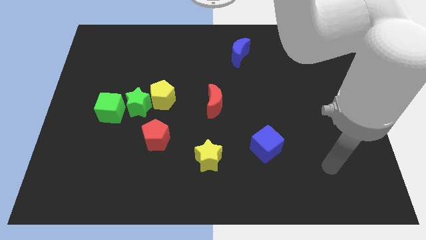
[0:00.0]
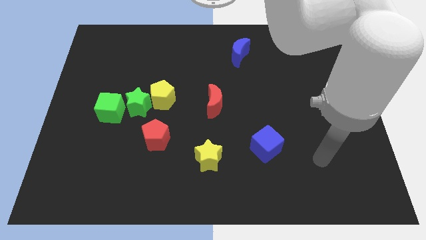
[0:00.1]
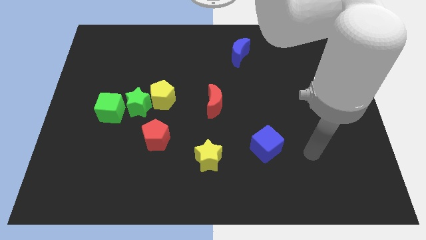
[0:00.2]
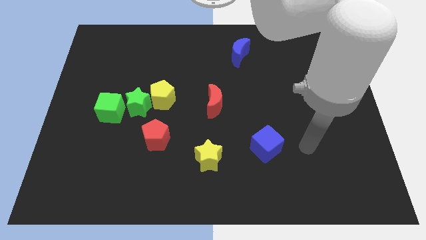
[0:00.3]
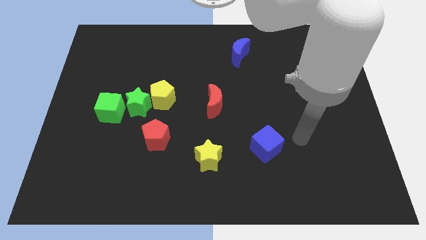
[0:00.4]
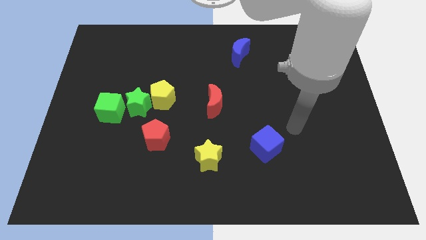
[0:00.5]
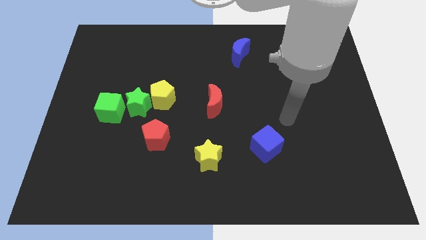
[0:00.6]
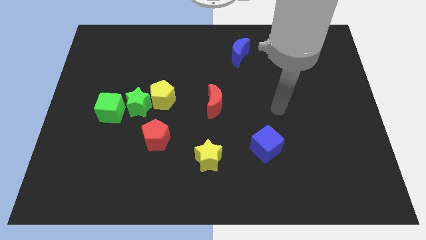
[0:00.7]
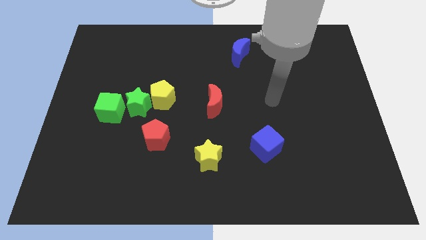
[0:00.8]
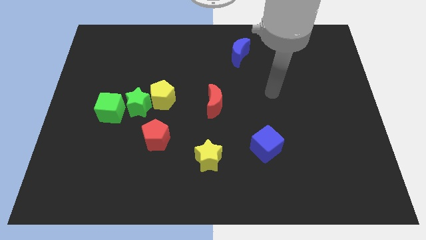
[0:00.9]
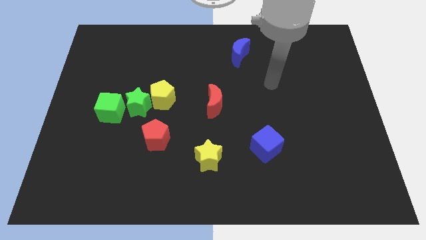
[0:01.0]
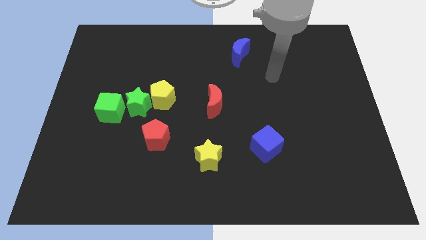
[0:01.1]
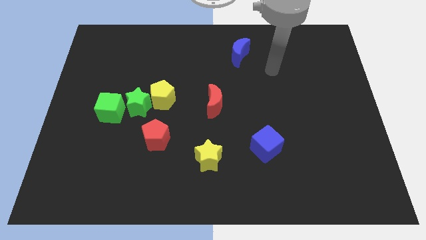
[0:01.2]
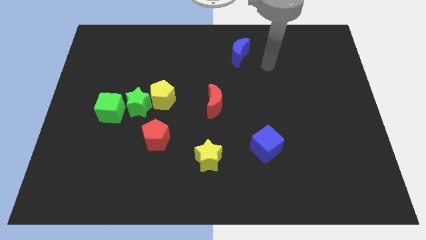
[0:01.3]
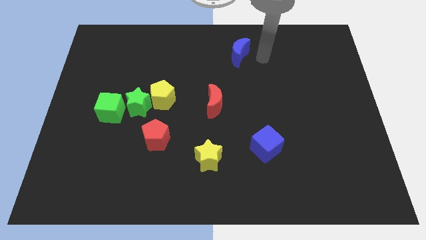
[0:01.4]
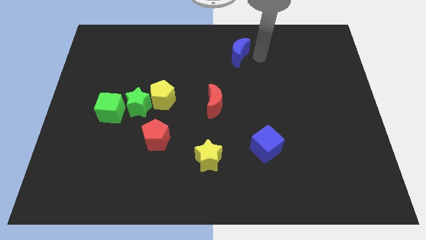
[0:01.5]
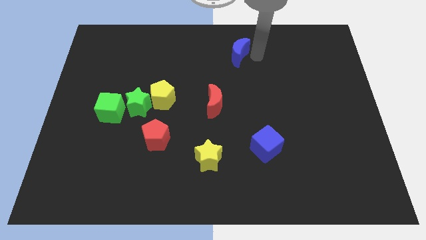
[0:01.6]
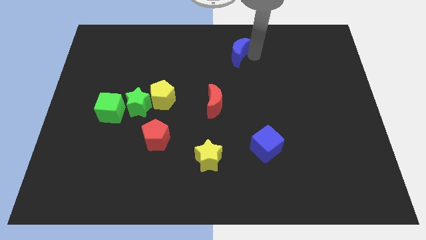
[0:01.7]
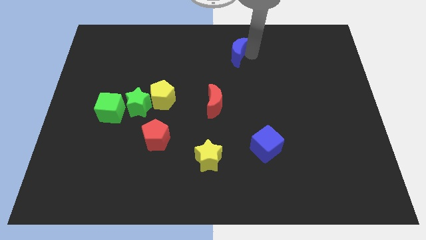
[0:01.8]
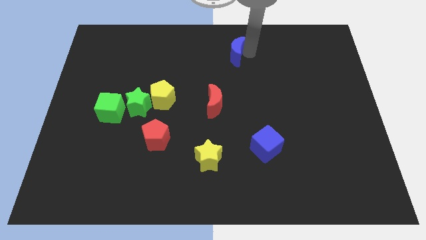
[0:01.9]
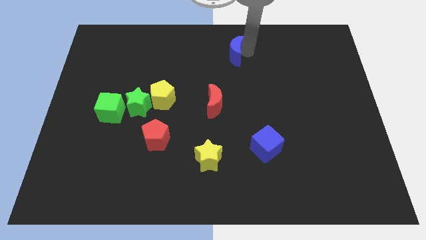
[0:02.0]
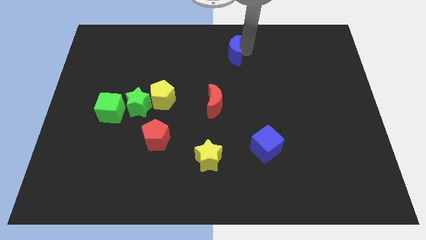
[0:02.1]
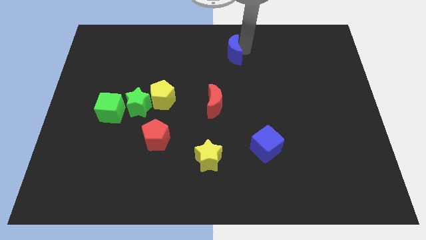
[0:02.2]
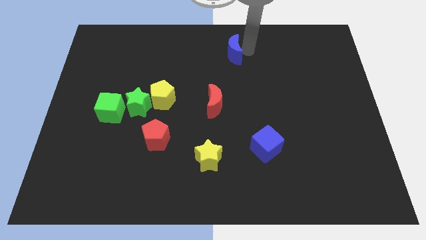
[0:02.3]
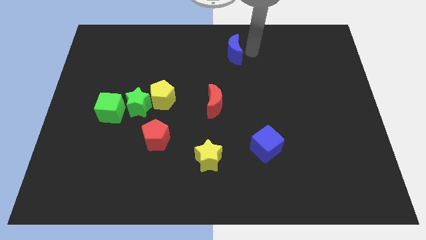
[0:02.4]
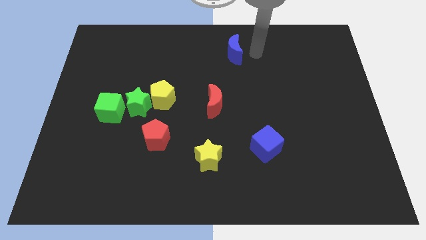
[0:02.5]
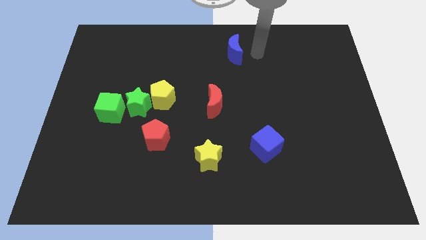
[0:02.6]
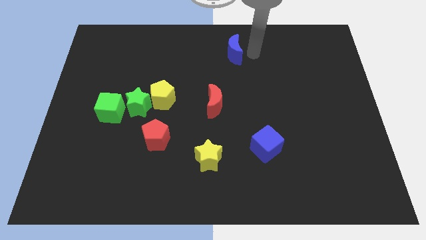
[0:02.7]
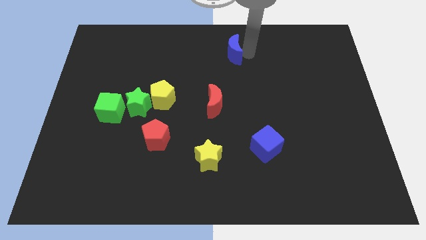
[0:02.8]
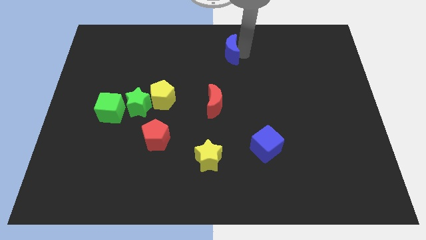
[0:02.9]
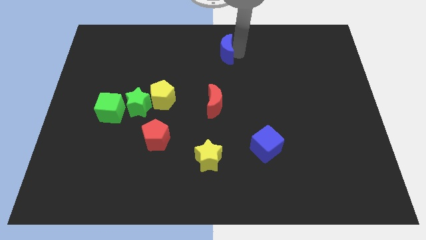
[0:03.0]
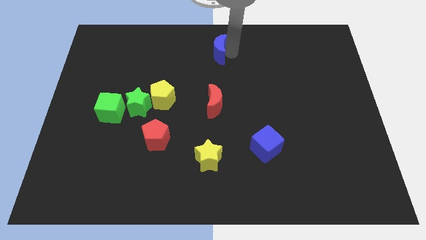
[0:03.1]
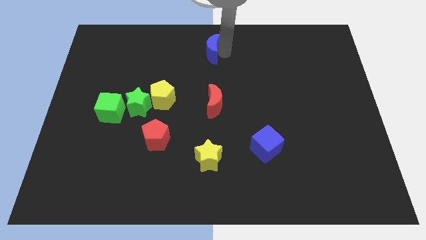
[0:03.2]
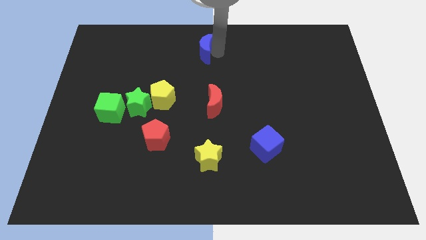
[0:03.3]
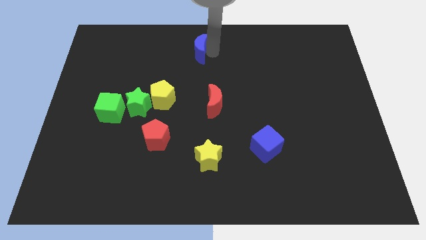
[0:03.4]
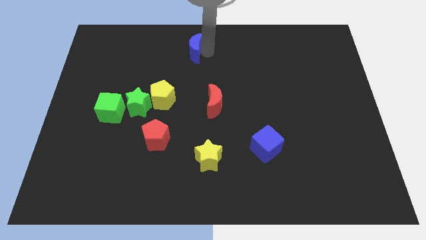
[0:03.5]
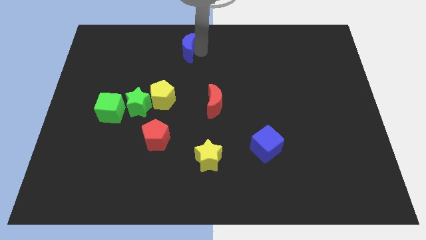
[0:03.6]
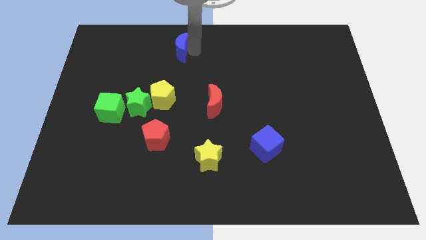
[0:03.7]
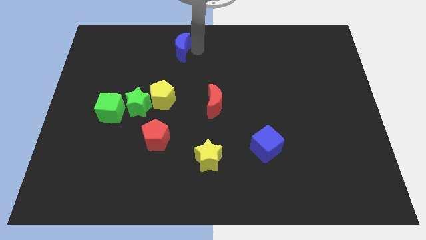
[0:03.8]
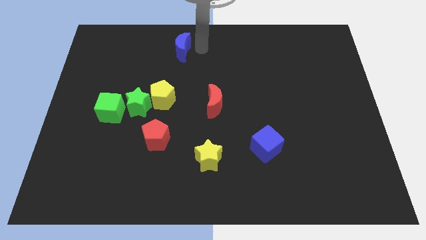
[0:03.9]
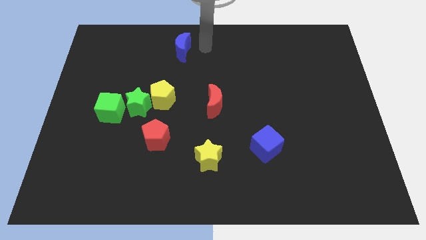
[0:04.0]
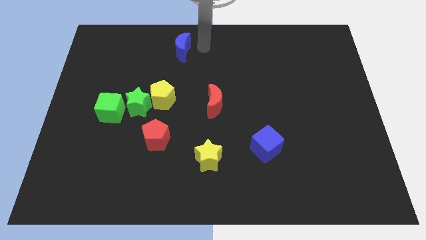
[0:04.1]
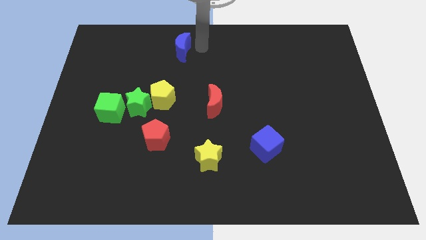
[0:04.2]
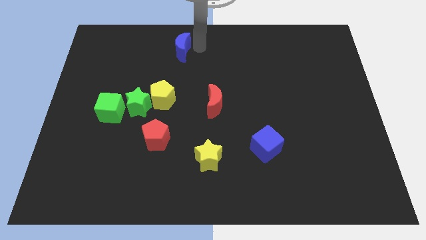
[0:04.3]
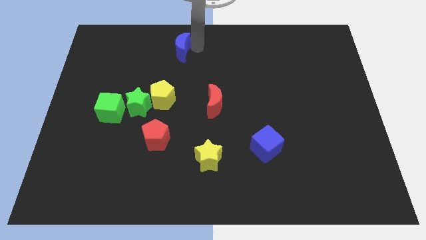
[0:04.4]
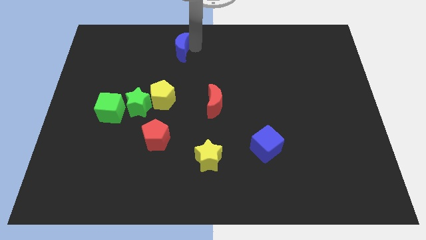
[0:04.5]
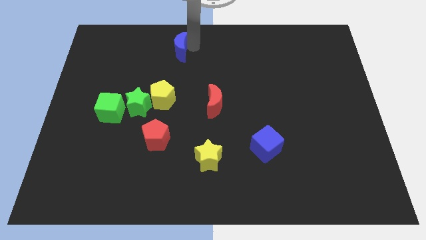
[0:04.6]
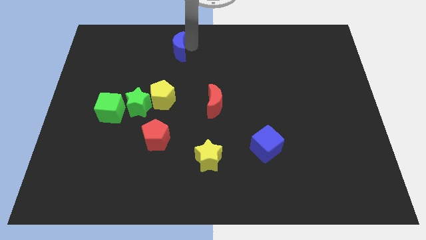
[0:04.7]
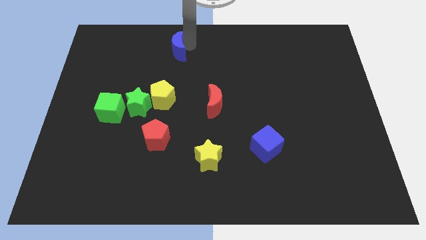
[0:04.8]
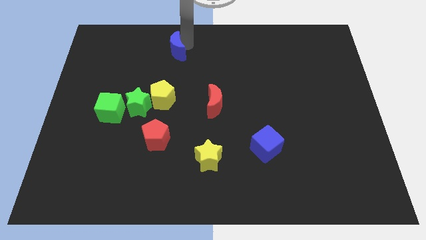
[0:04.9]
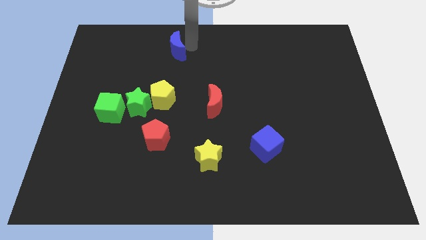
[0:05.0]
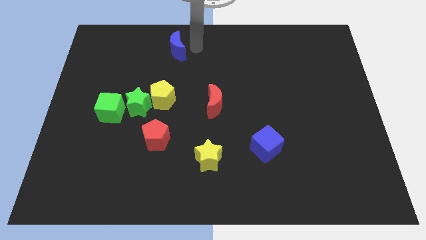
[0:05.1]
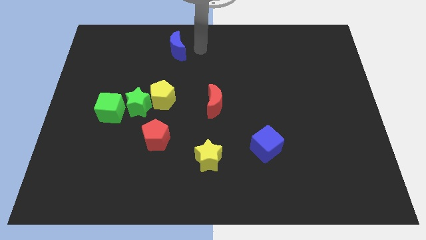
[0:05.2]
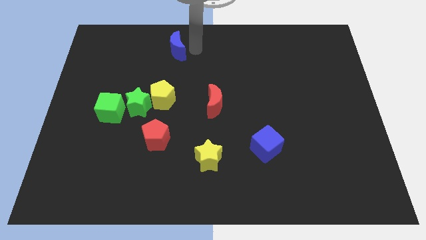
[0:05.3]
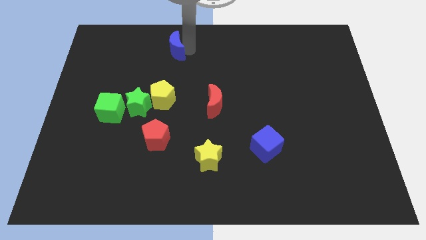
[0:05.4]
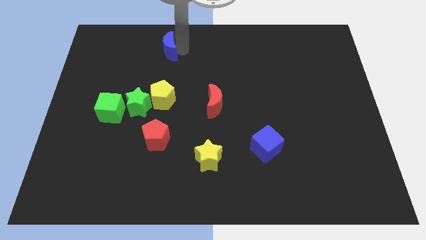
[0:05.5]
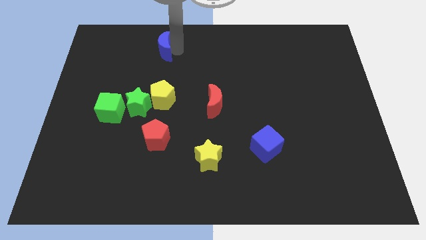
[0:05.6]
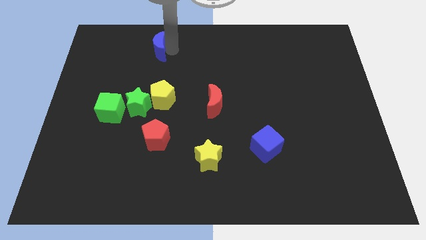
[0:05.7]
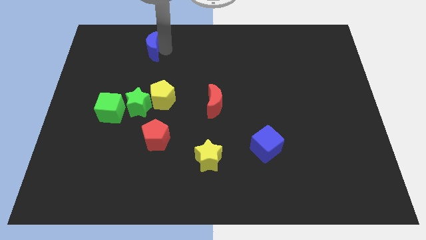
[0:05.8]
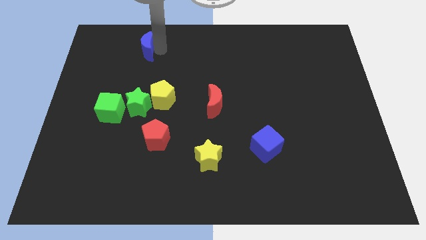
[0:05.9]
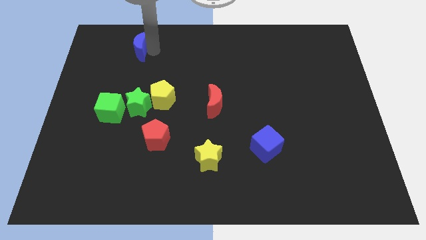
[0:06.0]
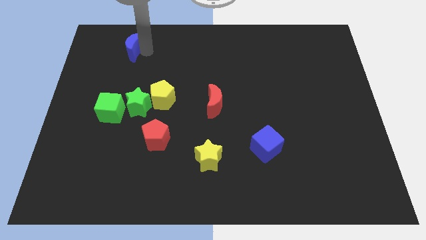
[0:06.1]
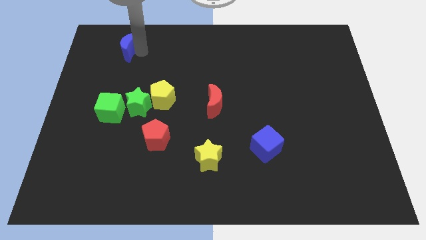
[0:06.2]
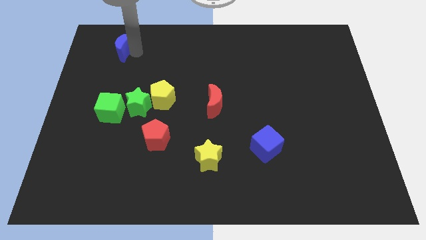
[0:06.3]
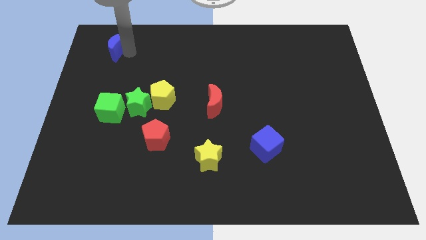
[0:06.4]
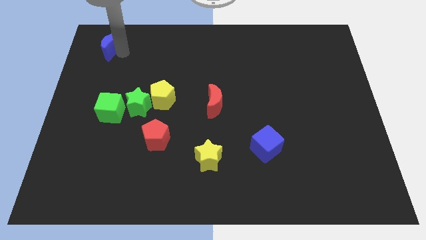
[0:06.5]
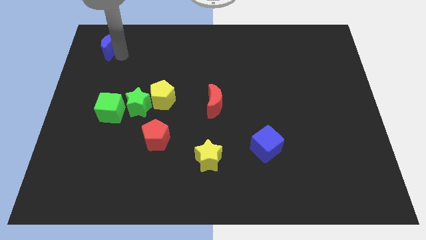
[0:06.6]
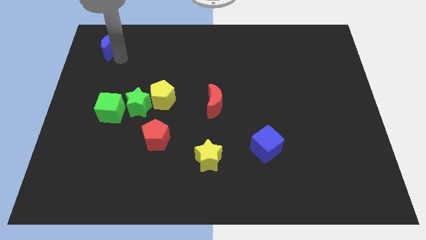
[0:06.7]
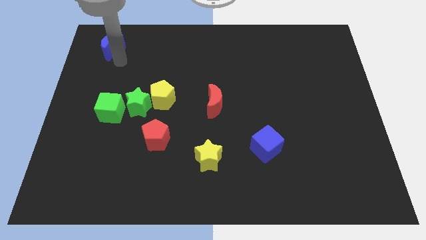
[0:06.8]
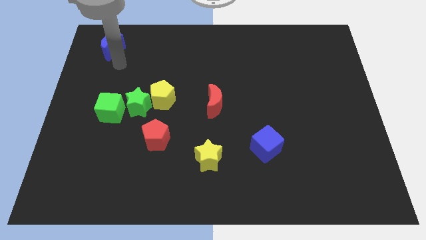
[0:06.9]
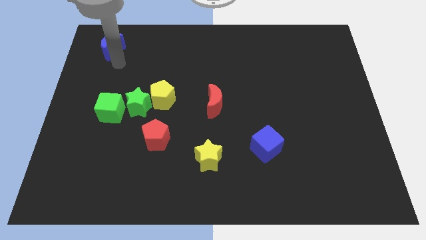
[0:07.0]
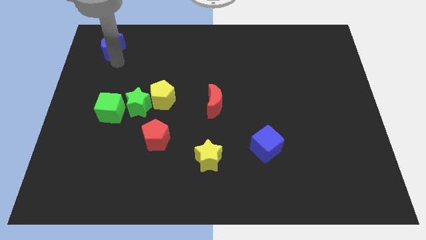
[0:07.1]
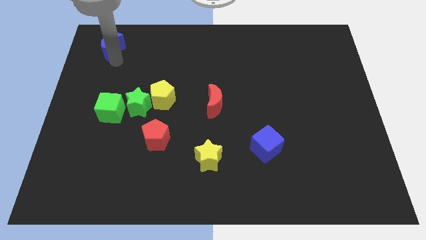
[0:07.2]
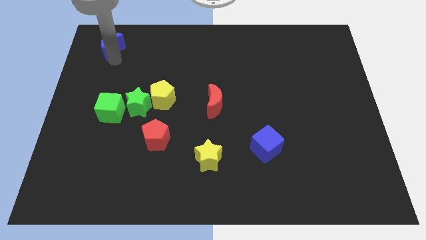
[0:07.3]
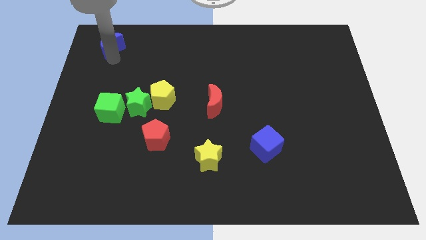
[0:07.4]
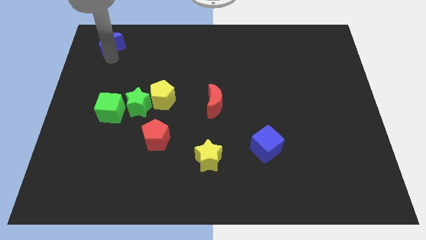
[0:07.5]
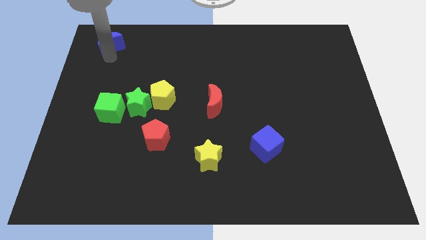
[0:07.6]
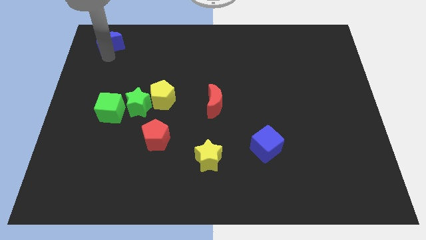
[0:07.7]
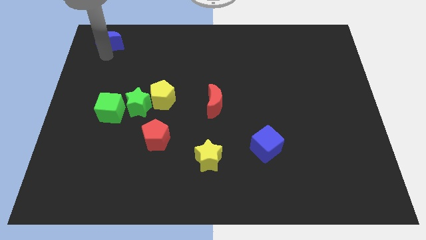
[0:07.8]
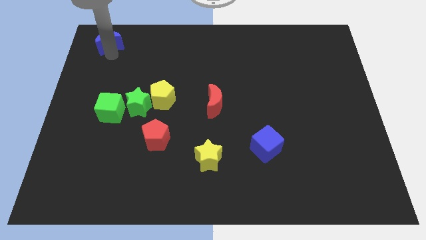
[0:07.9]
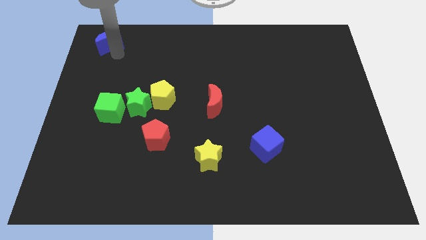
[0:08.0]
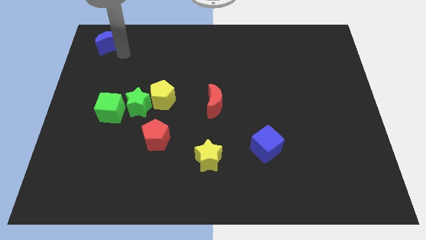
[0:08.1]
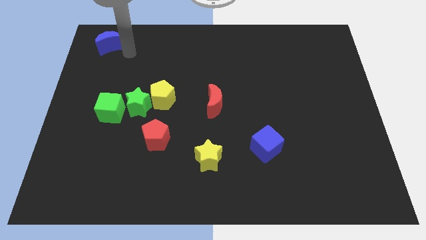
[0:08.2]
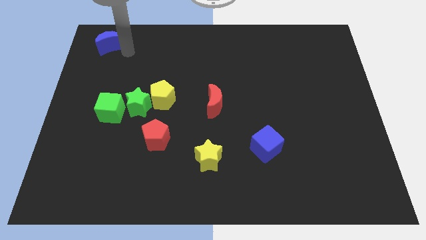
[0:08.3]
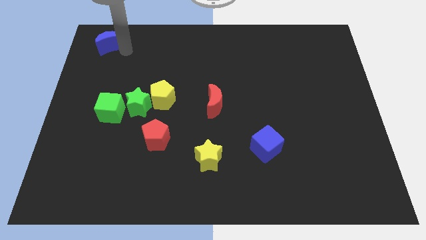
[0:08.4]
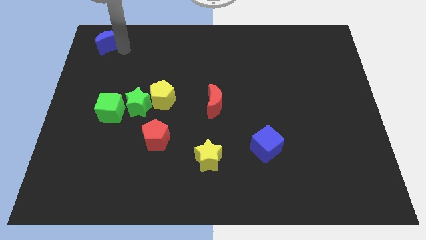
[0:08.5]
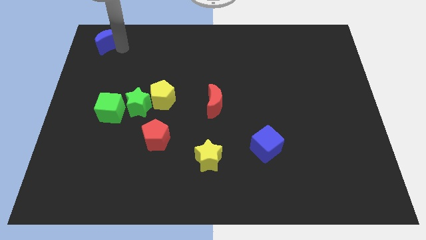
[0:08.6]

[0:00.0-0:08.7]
put the blue moon to the top left
